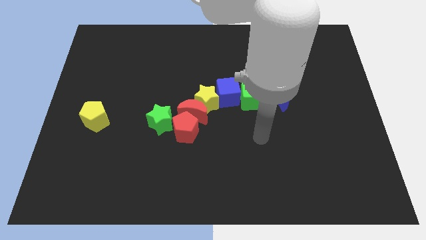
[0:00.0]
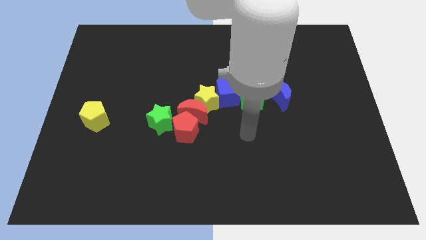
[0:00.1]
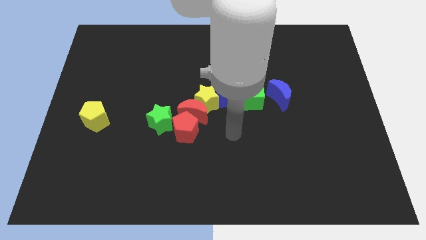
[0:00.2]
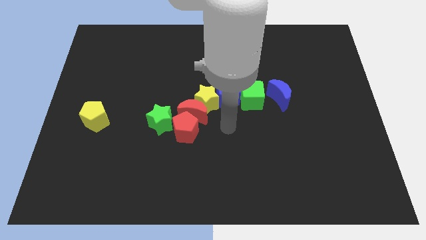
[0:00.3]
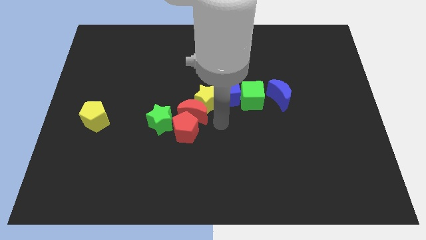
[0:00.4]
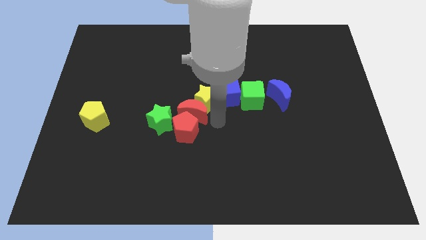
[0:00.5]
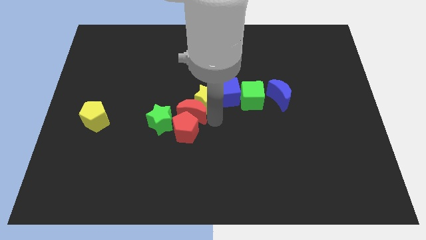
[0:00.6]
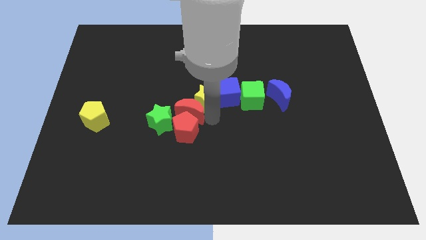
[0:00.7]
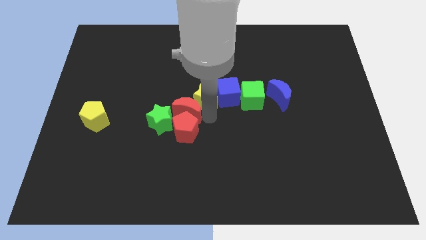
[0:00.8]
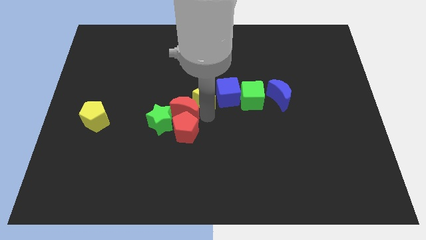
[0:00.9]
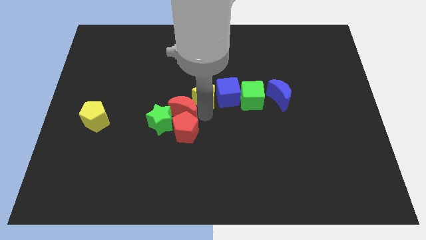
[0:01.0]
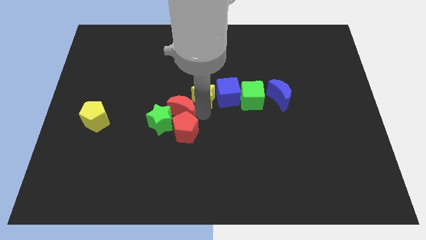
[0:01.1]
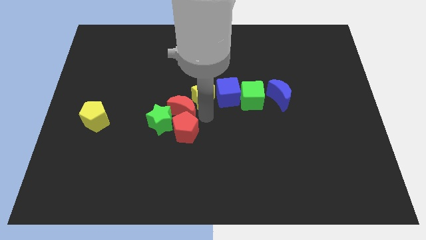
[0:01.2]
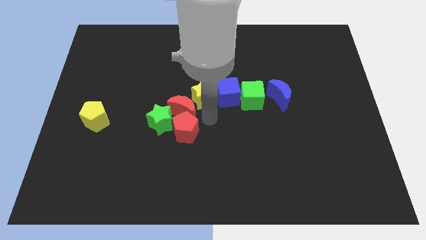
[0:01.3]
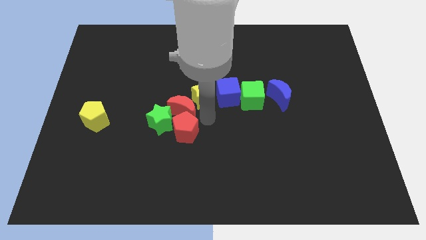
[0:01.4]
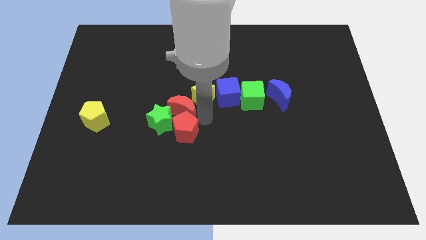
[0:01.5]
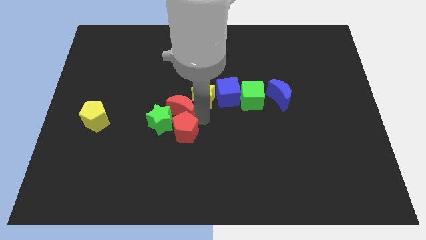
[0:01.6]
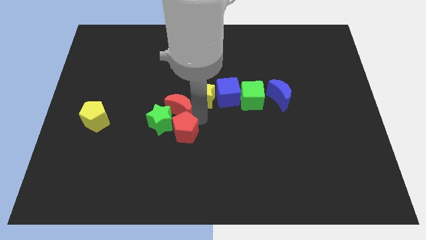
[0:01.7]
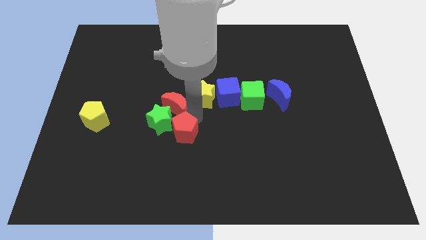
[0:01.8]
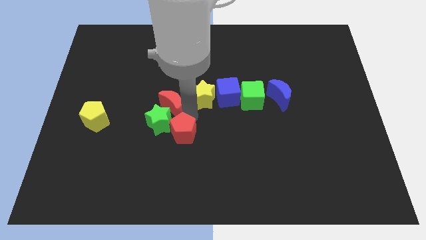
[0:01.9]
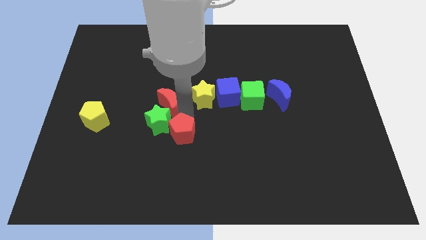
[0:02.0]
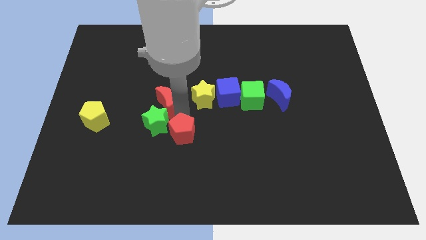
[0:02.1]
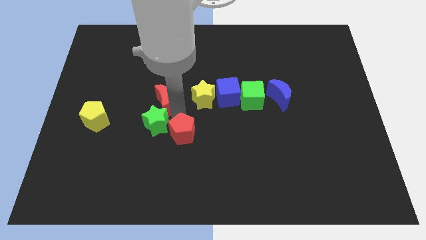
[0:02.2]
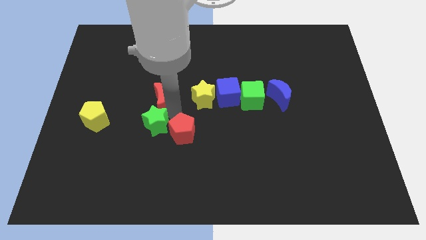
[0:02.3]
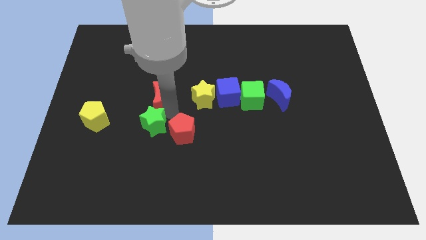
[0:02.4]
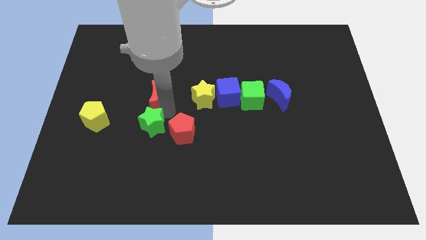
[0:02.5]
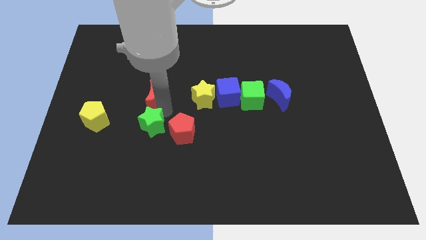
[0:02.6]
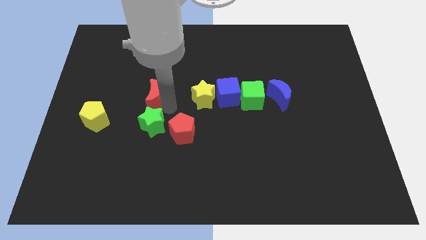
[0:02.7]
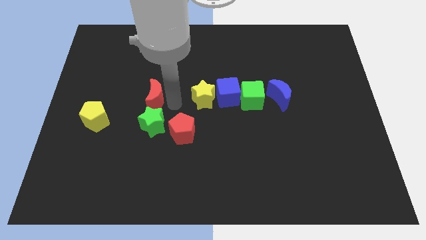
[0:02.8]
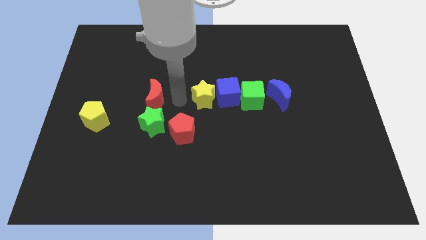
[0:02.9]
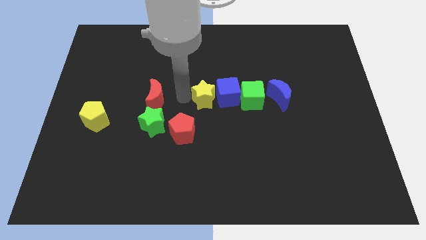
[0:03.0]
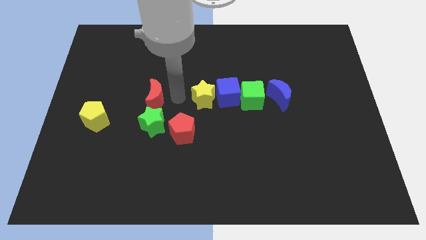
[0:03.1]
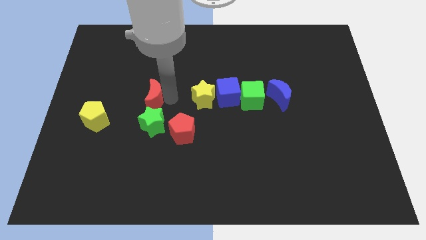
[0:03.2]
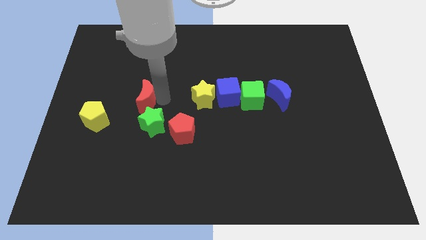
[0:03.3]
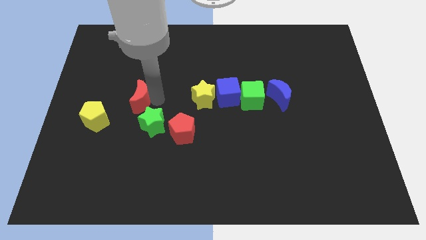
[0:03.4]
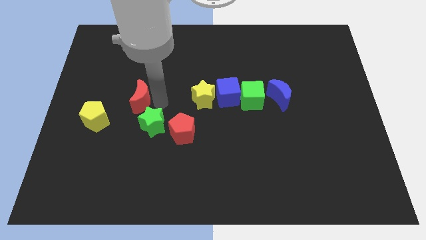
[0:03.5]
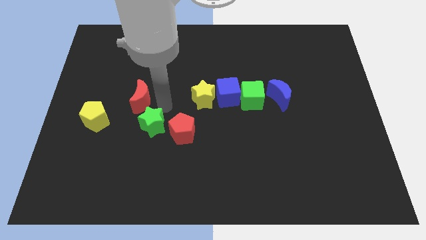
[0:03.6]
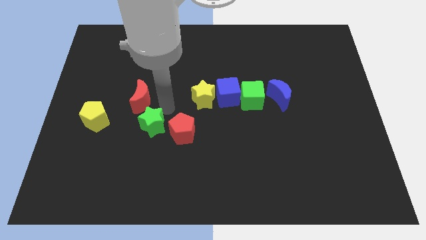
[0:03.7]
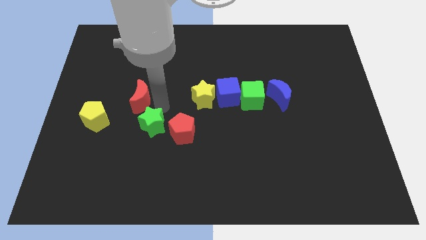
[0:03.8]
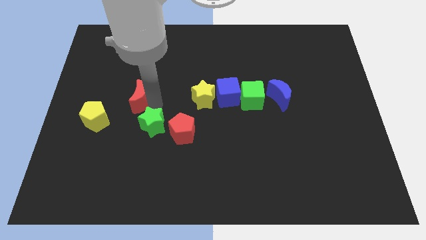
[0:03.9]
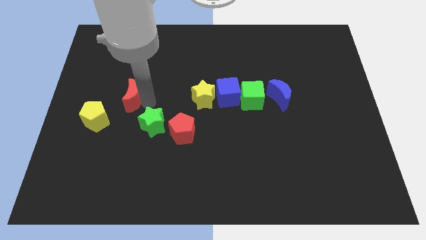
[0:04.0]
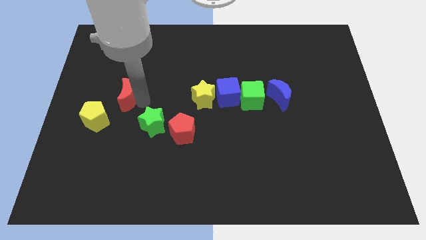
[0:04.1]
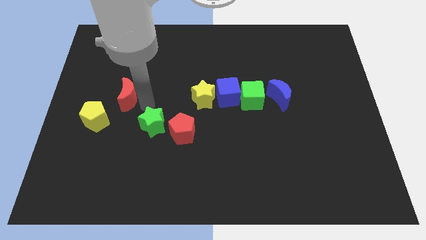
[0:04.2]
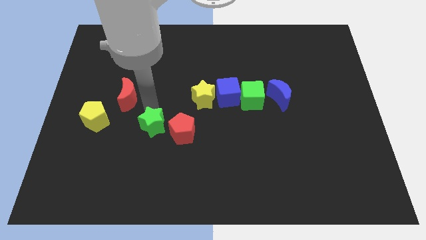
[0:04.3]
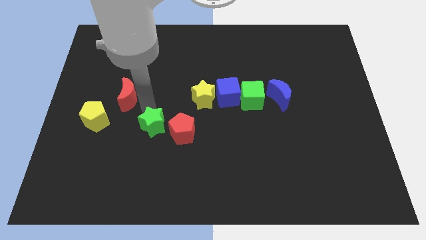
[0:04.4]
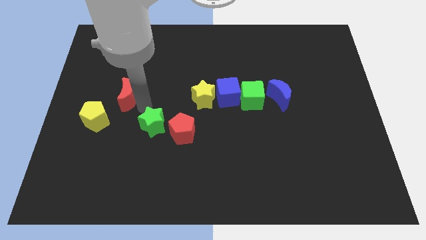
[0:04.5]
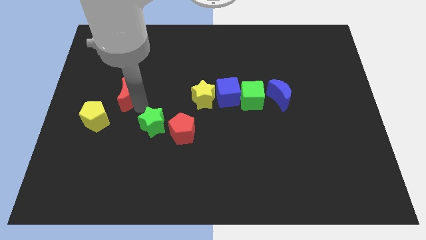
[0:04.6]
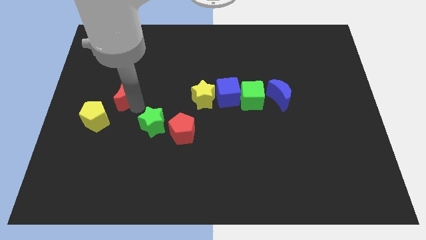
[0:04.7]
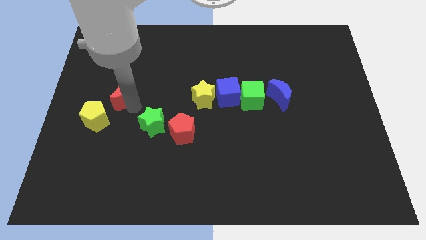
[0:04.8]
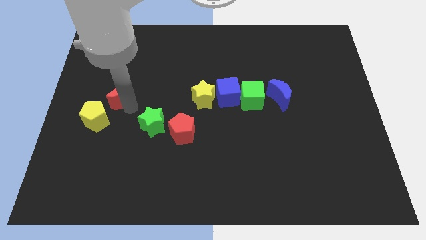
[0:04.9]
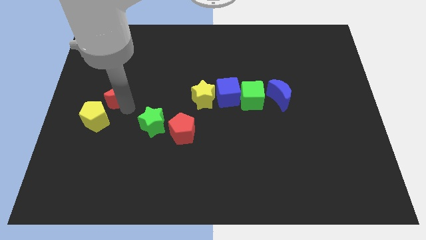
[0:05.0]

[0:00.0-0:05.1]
move the red moon to the top of the yellow pentagon
